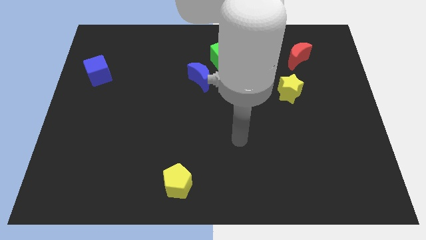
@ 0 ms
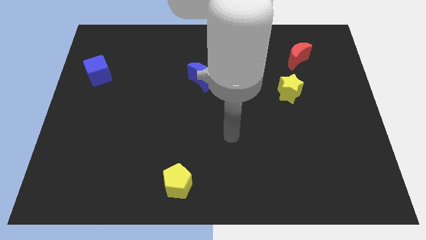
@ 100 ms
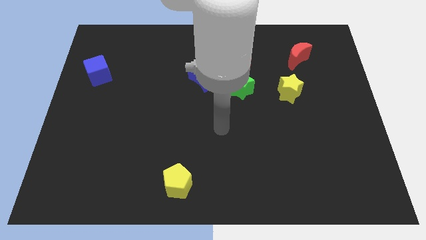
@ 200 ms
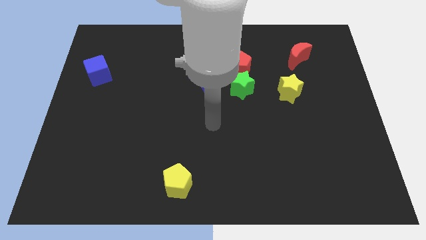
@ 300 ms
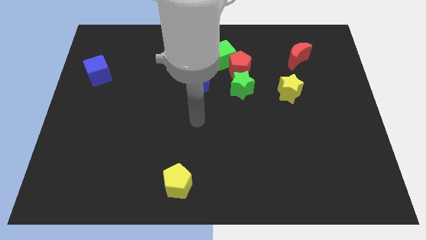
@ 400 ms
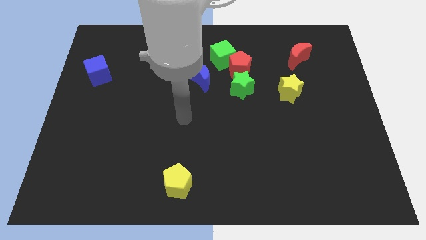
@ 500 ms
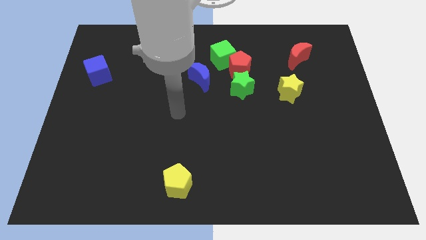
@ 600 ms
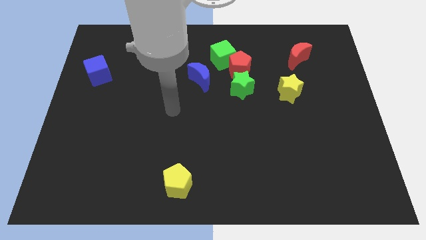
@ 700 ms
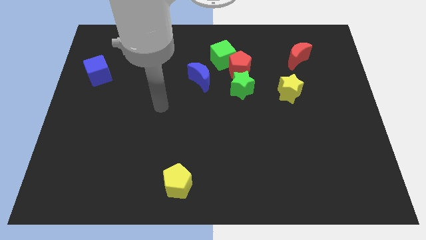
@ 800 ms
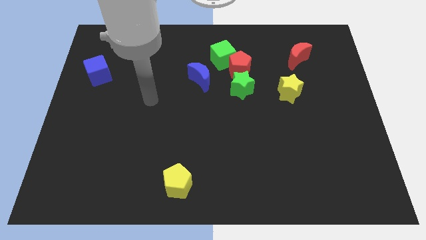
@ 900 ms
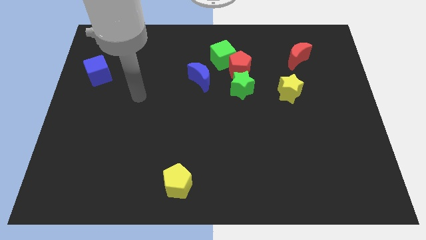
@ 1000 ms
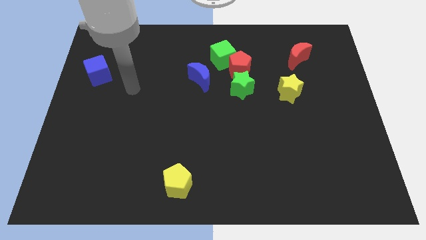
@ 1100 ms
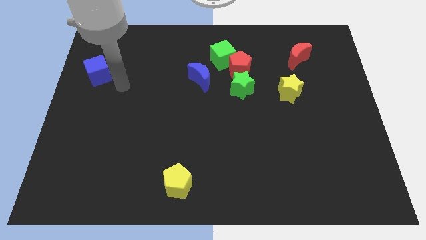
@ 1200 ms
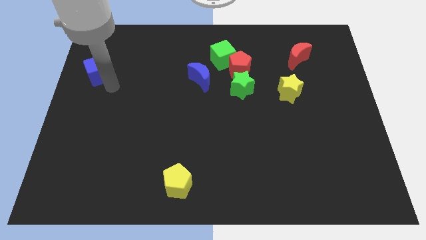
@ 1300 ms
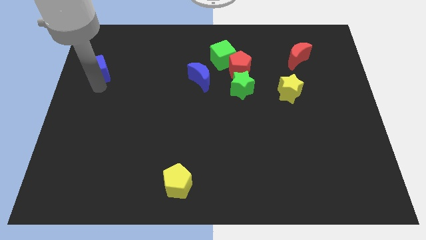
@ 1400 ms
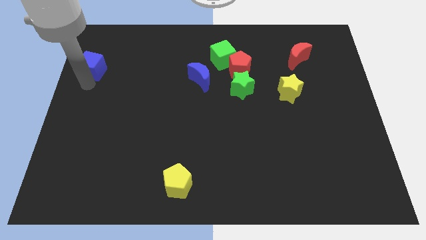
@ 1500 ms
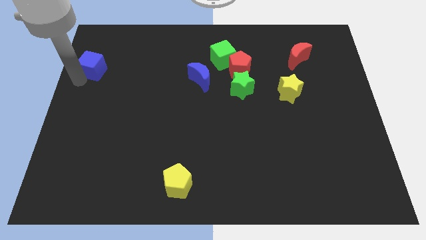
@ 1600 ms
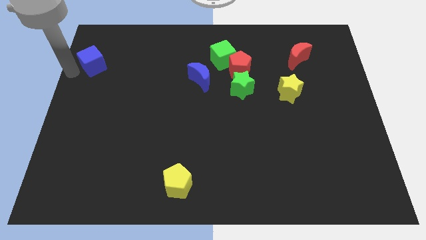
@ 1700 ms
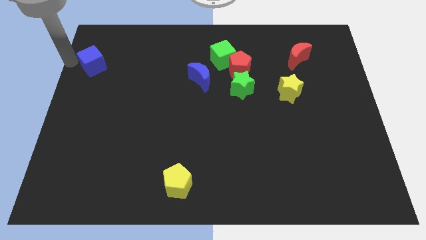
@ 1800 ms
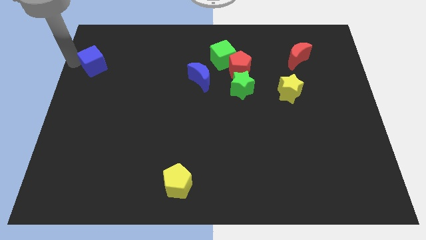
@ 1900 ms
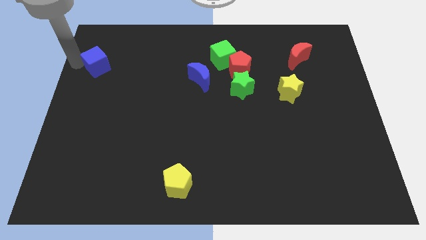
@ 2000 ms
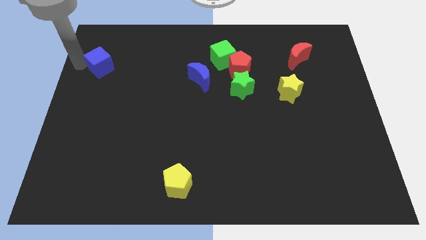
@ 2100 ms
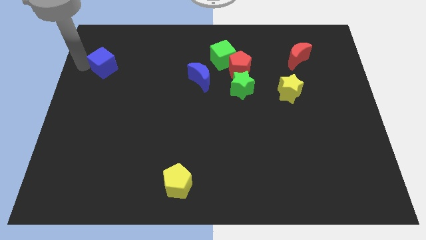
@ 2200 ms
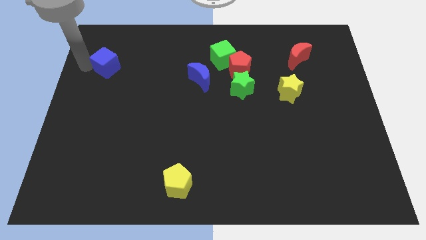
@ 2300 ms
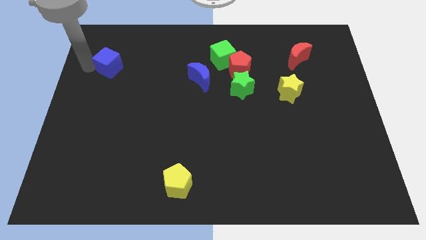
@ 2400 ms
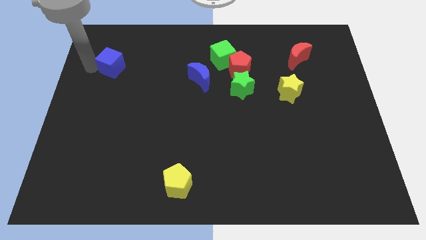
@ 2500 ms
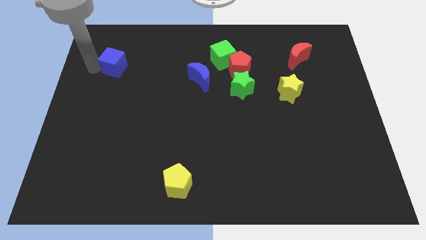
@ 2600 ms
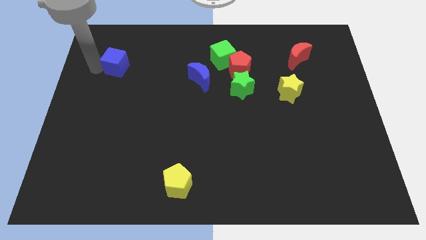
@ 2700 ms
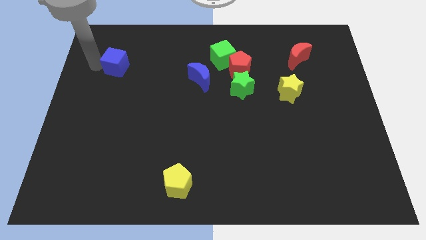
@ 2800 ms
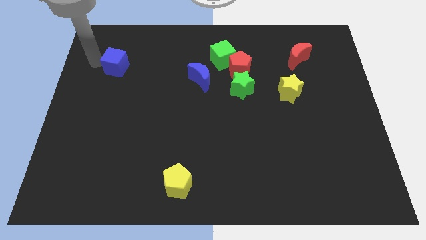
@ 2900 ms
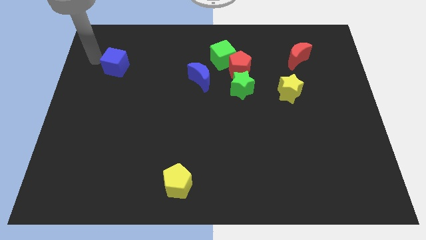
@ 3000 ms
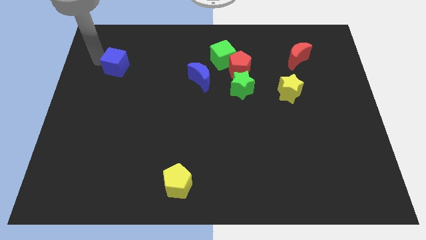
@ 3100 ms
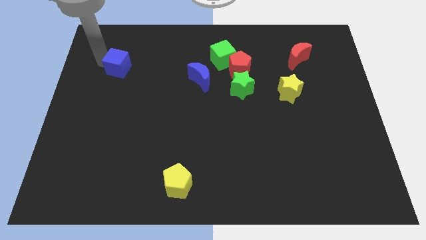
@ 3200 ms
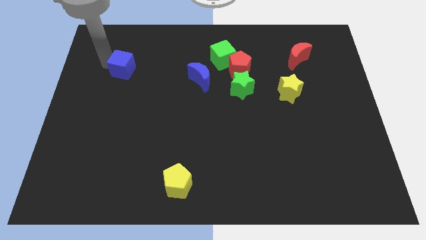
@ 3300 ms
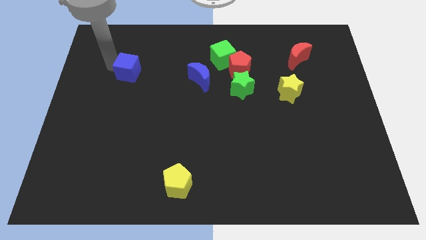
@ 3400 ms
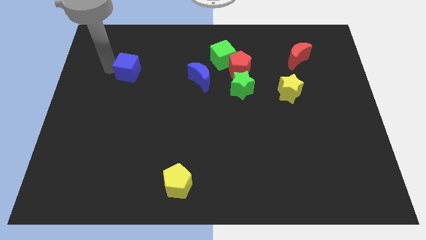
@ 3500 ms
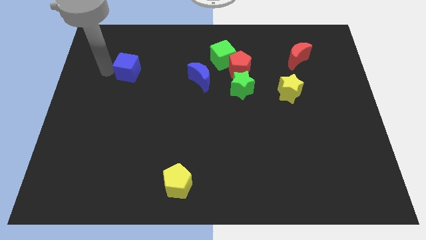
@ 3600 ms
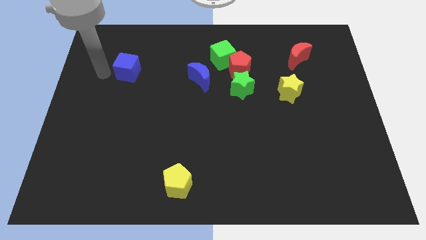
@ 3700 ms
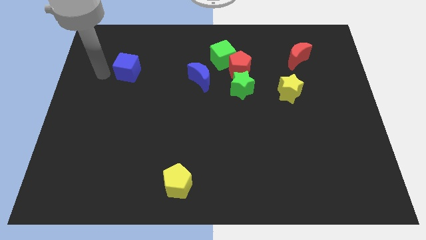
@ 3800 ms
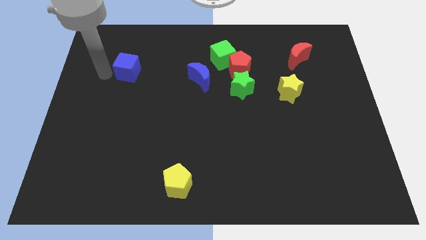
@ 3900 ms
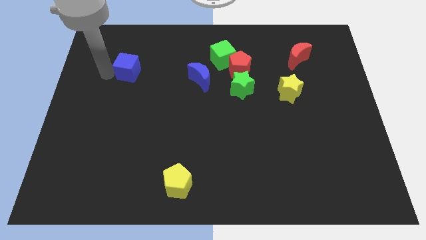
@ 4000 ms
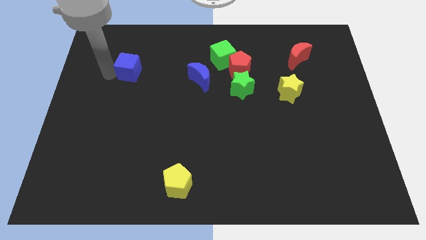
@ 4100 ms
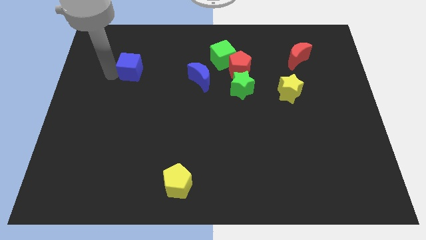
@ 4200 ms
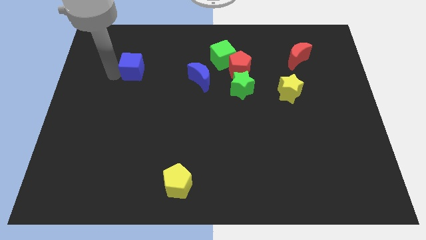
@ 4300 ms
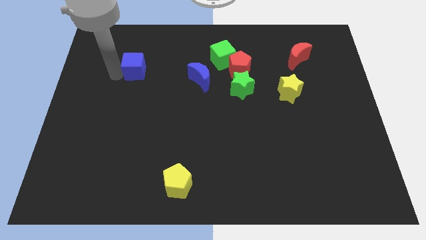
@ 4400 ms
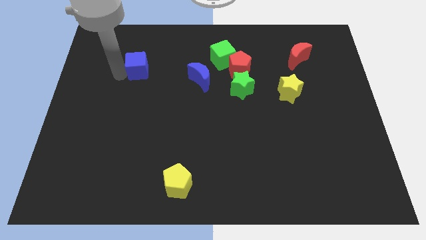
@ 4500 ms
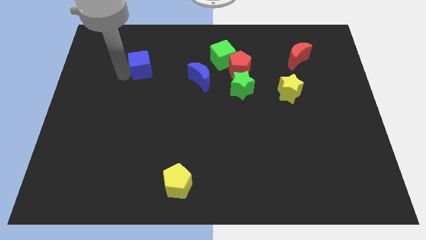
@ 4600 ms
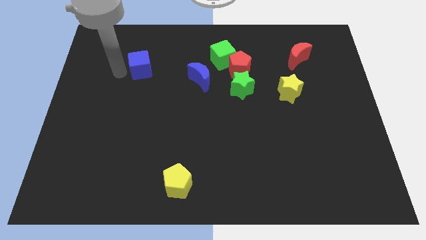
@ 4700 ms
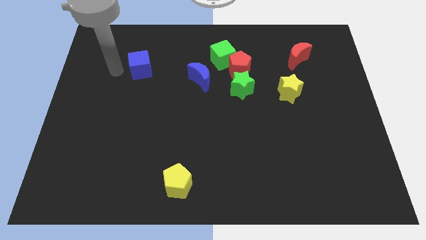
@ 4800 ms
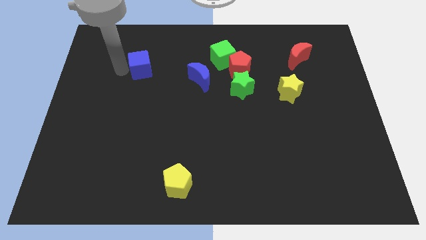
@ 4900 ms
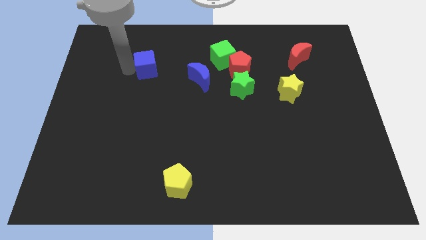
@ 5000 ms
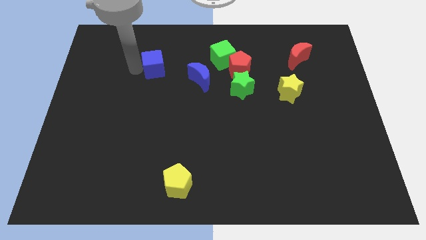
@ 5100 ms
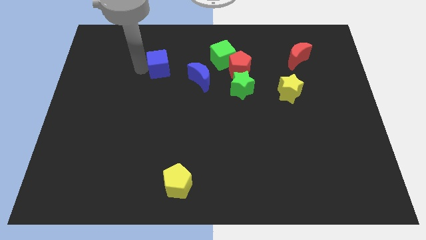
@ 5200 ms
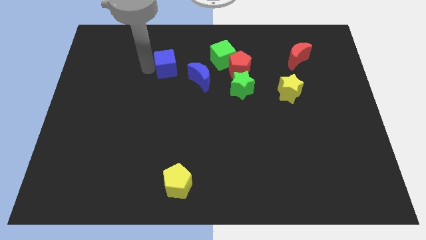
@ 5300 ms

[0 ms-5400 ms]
move the blue cube to the top left side of the blue moon

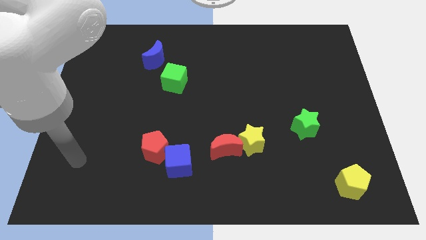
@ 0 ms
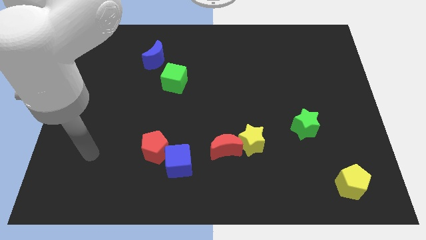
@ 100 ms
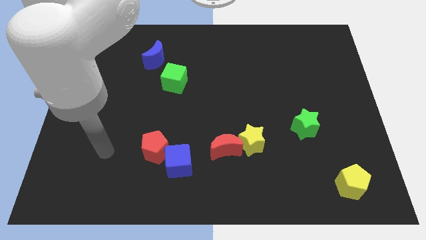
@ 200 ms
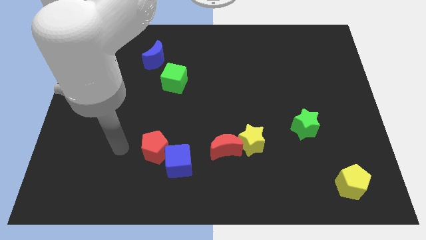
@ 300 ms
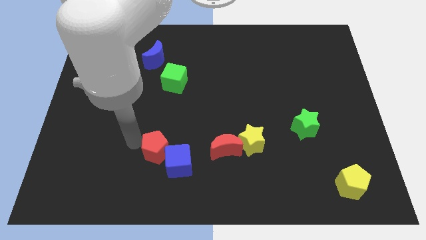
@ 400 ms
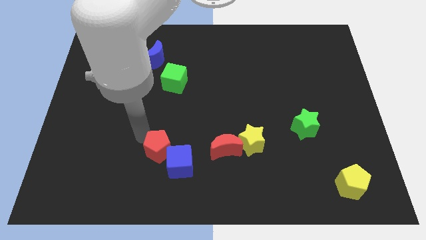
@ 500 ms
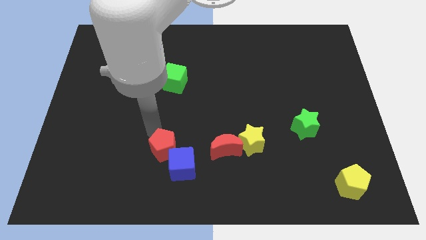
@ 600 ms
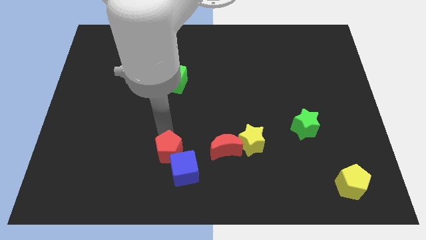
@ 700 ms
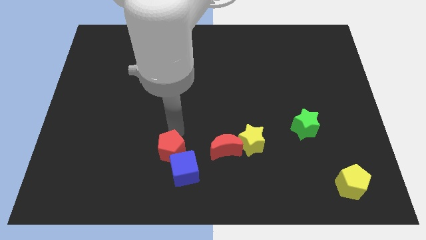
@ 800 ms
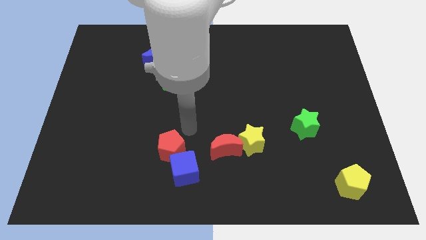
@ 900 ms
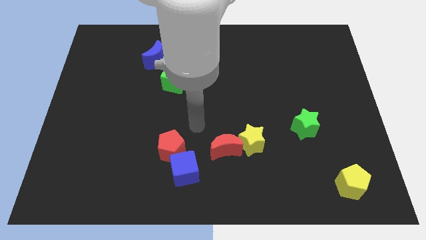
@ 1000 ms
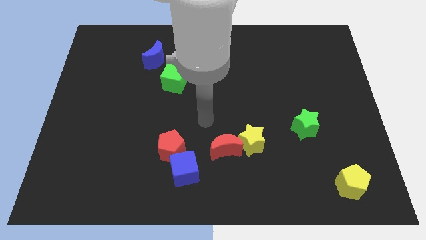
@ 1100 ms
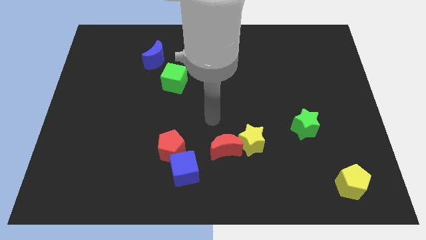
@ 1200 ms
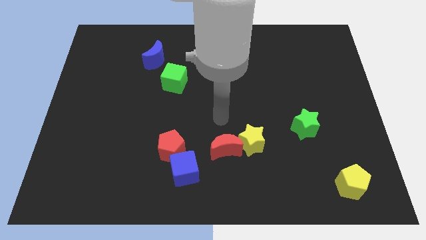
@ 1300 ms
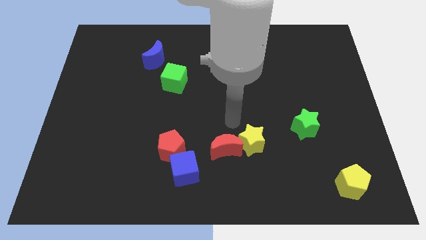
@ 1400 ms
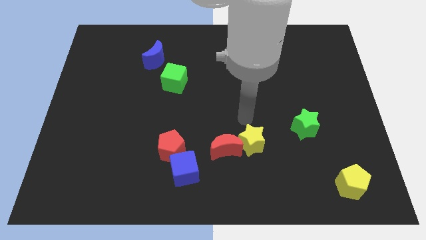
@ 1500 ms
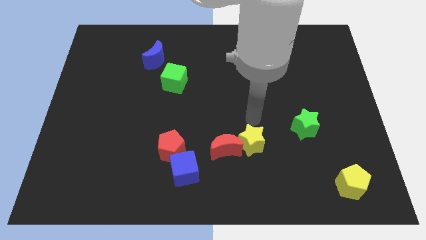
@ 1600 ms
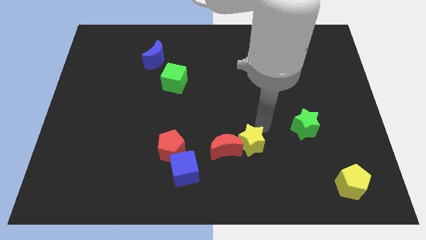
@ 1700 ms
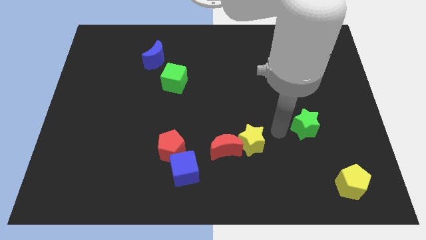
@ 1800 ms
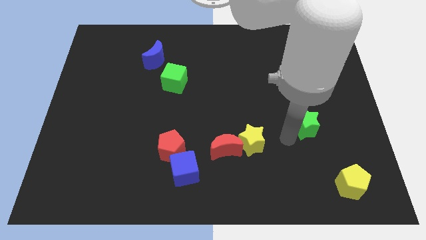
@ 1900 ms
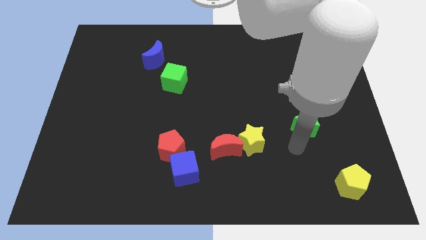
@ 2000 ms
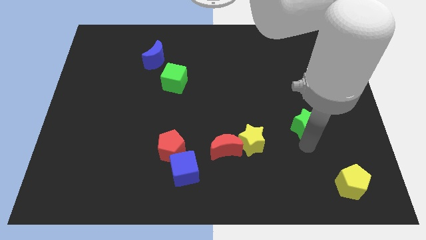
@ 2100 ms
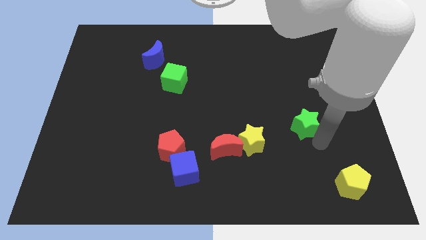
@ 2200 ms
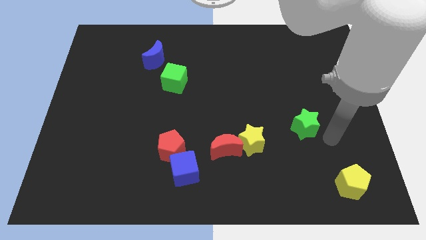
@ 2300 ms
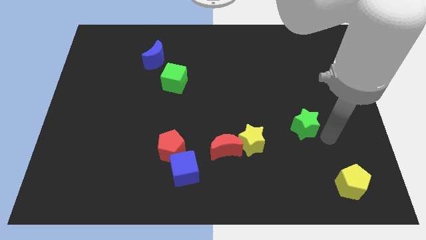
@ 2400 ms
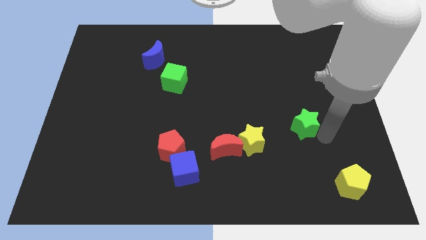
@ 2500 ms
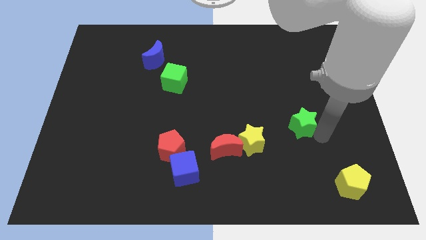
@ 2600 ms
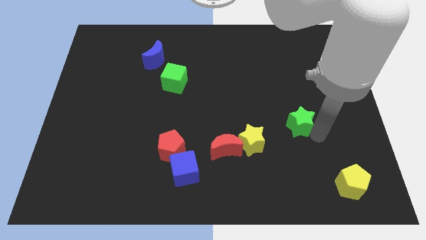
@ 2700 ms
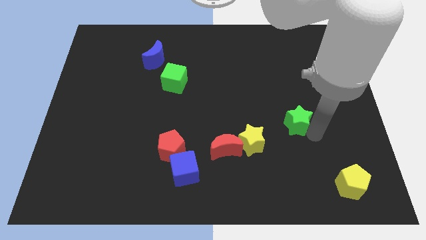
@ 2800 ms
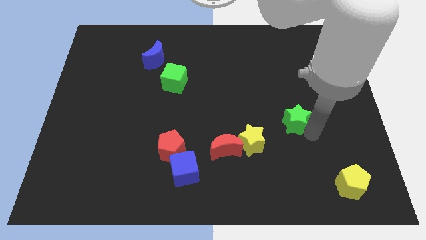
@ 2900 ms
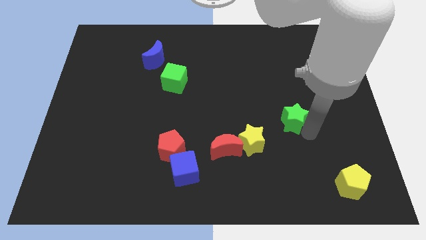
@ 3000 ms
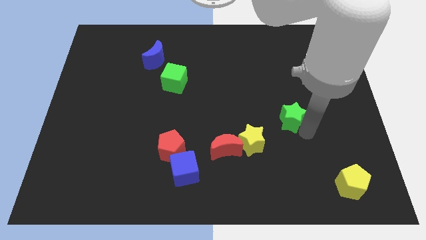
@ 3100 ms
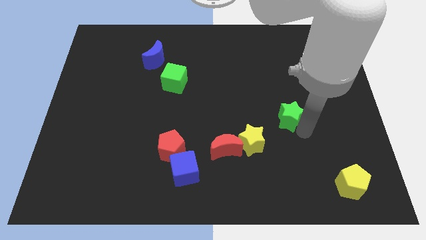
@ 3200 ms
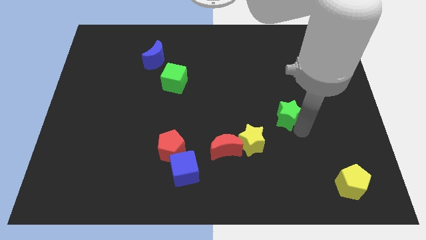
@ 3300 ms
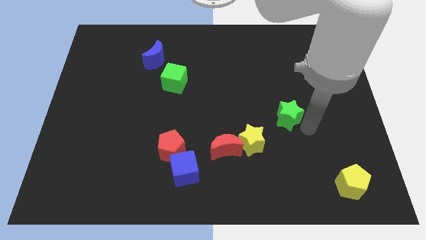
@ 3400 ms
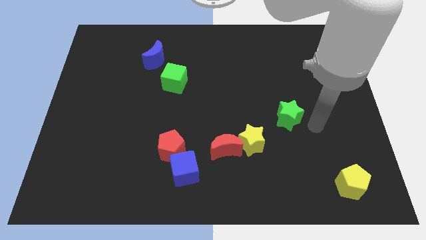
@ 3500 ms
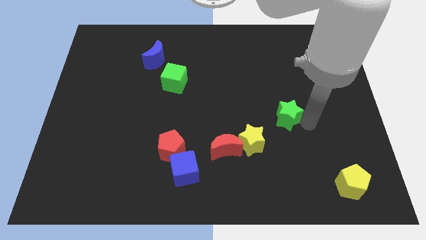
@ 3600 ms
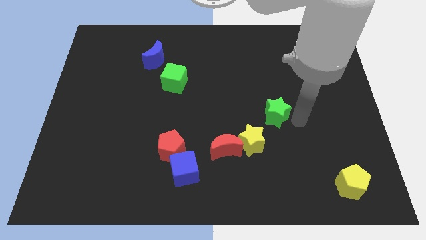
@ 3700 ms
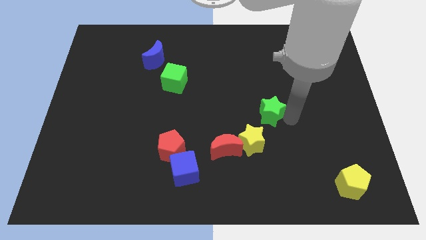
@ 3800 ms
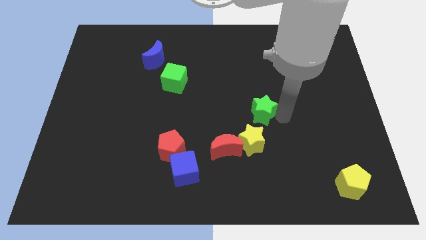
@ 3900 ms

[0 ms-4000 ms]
push the green star above the yellow star
